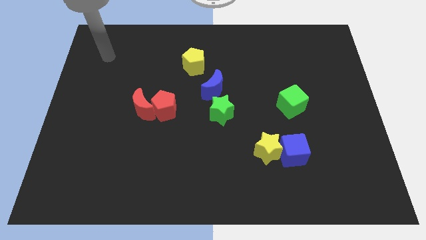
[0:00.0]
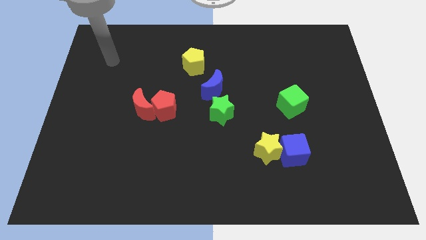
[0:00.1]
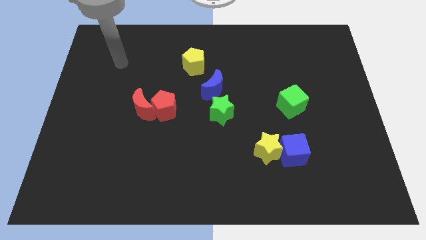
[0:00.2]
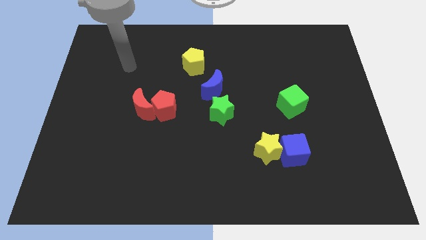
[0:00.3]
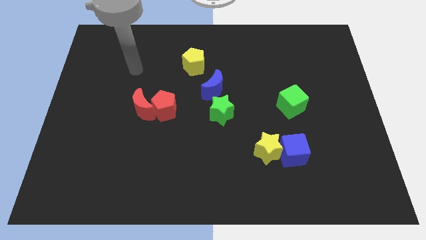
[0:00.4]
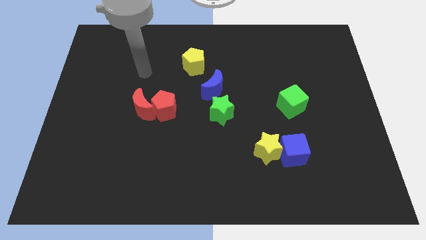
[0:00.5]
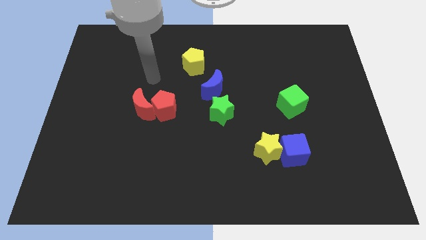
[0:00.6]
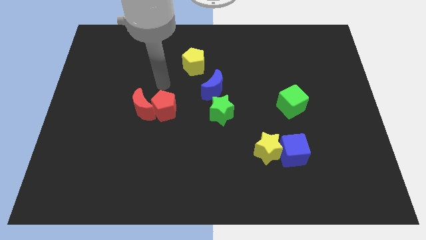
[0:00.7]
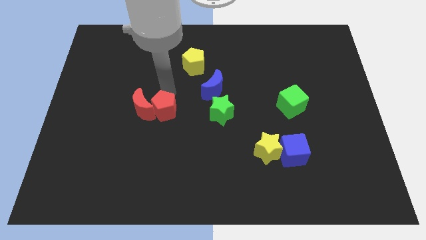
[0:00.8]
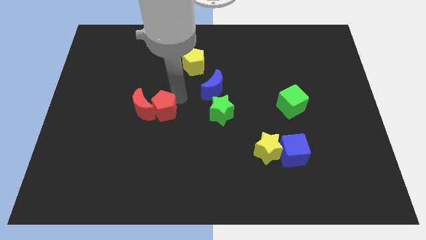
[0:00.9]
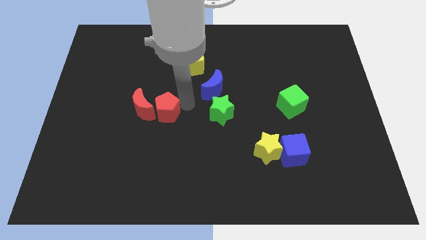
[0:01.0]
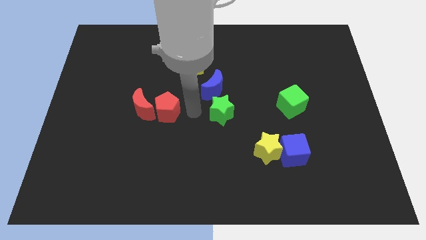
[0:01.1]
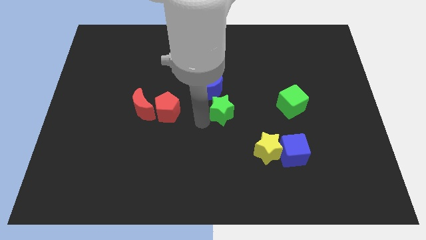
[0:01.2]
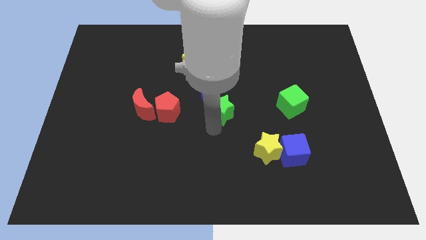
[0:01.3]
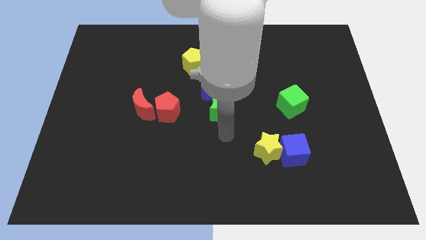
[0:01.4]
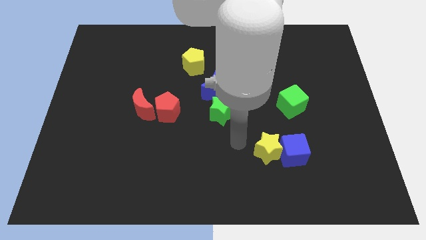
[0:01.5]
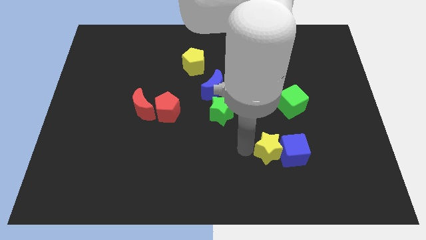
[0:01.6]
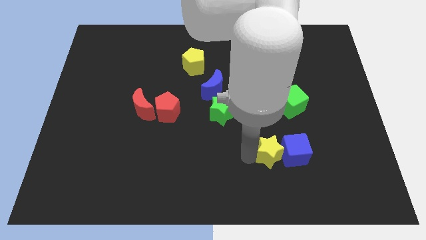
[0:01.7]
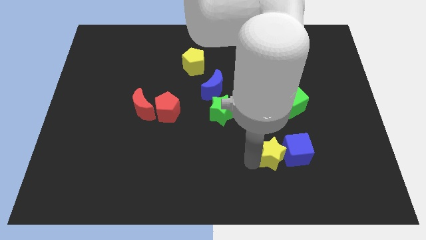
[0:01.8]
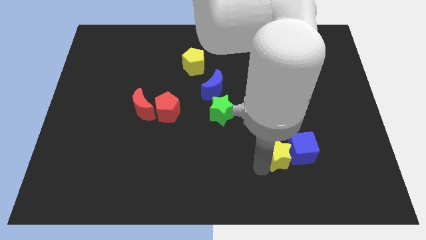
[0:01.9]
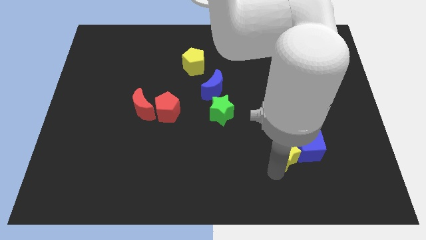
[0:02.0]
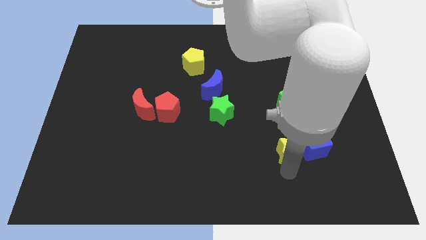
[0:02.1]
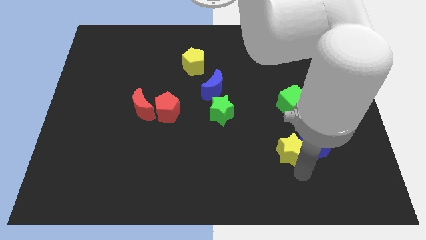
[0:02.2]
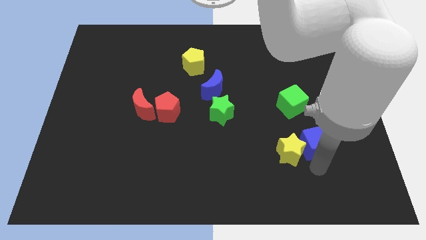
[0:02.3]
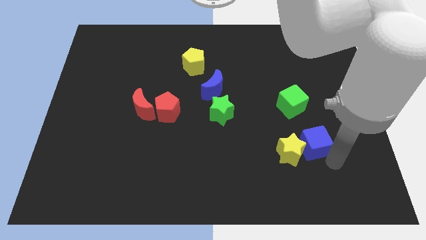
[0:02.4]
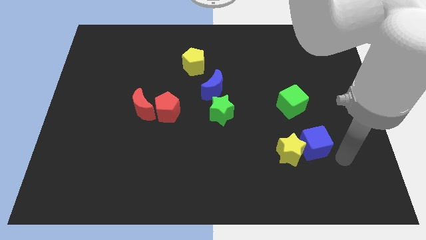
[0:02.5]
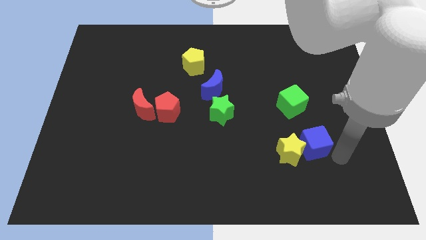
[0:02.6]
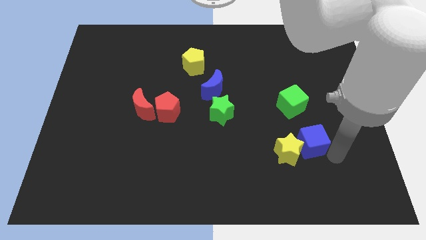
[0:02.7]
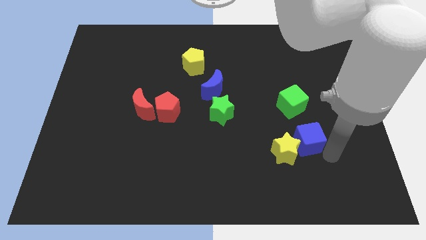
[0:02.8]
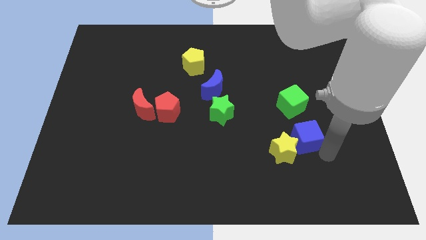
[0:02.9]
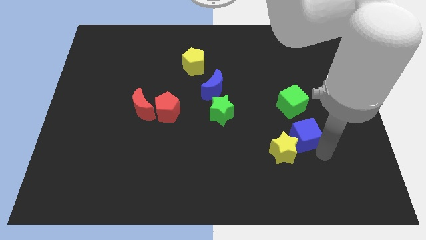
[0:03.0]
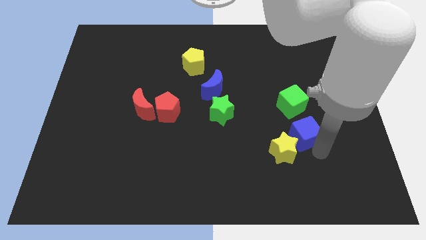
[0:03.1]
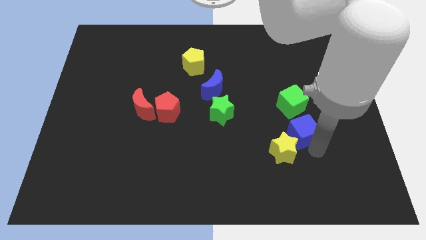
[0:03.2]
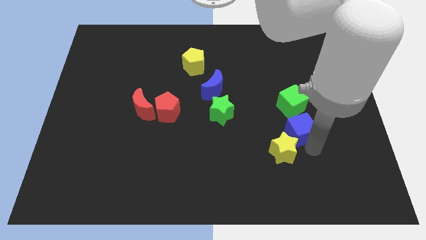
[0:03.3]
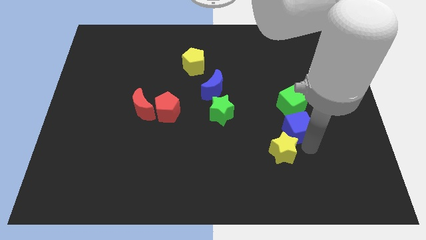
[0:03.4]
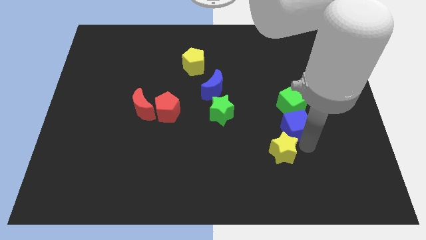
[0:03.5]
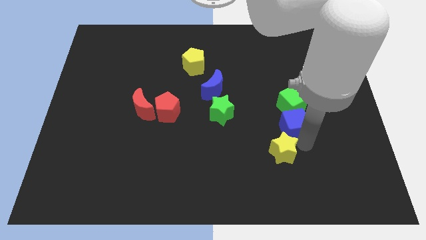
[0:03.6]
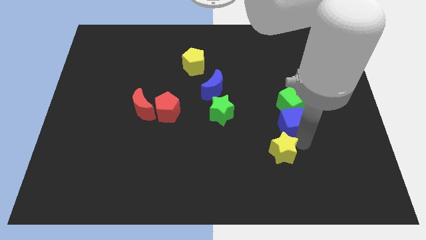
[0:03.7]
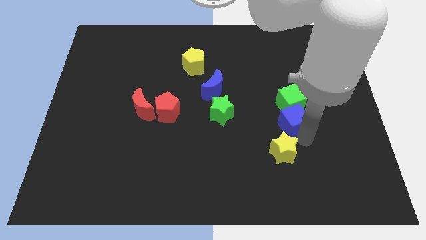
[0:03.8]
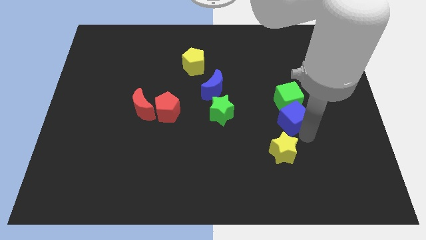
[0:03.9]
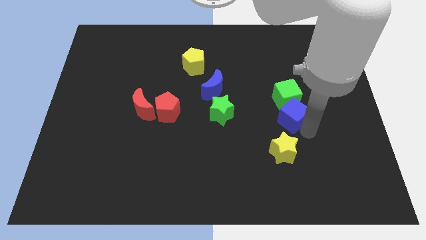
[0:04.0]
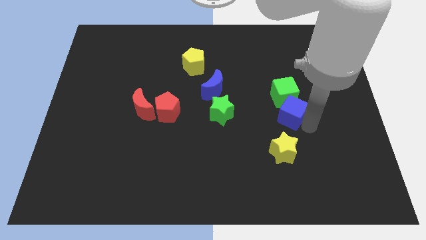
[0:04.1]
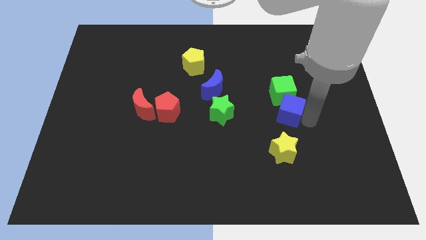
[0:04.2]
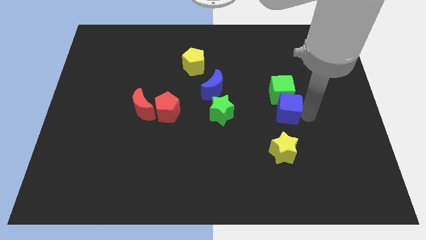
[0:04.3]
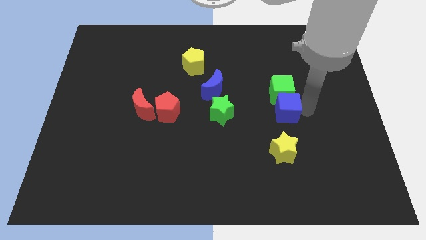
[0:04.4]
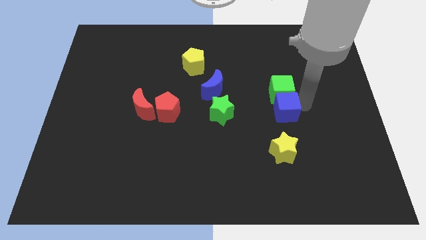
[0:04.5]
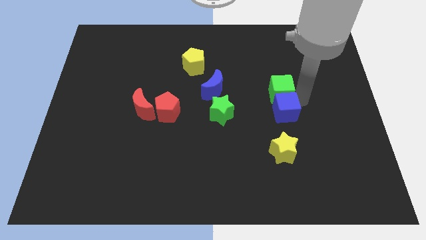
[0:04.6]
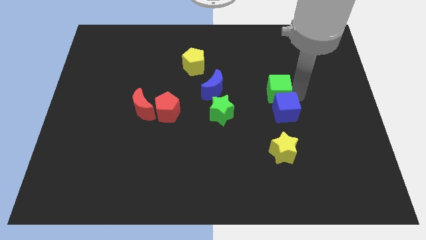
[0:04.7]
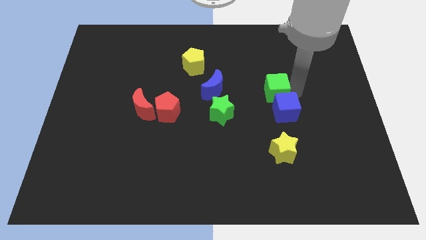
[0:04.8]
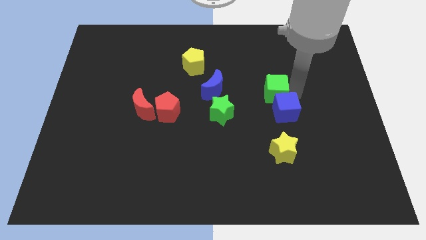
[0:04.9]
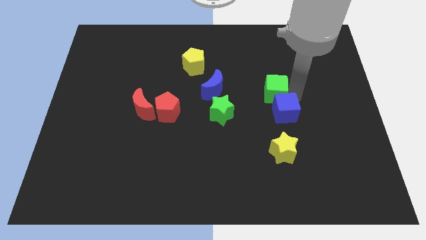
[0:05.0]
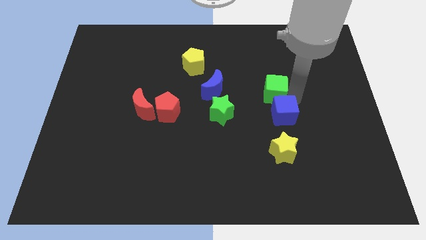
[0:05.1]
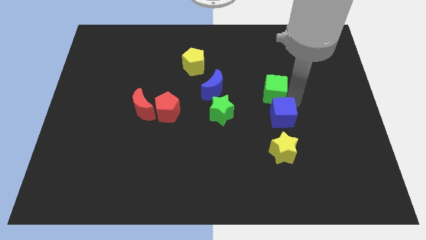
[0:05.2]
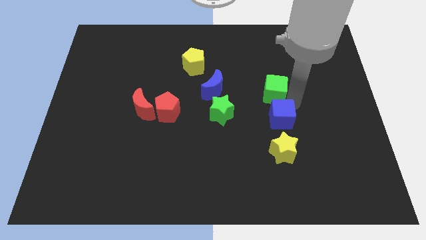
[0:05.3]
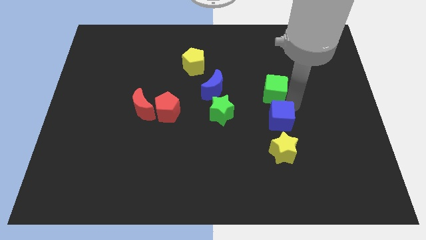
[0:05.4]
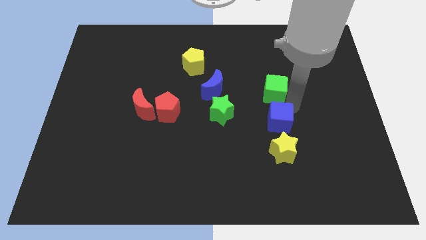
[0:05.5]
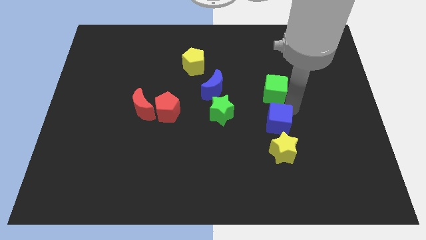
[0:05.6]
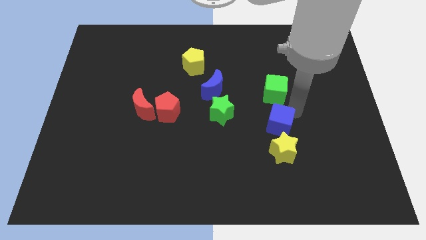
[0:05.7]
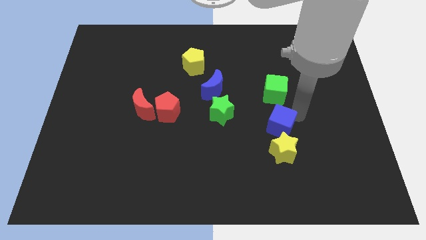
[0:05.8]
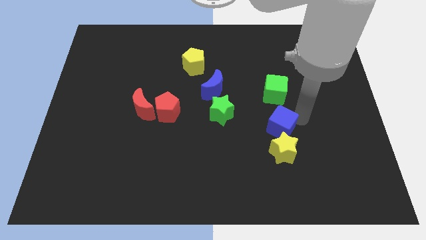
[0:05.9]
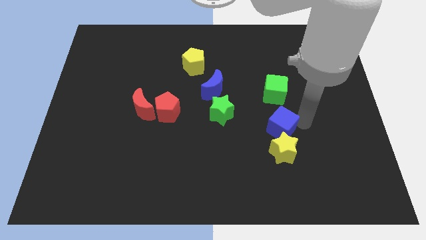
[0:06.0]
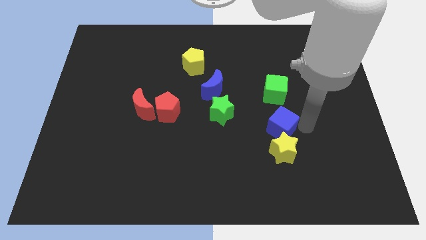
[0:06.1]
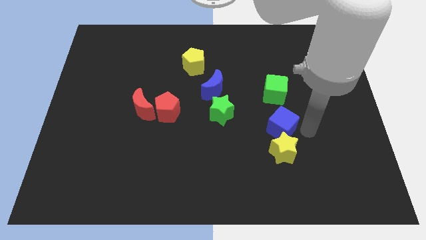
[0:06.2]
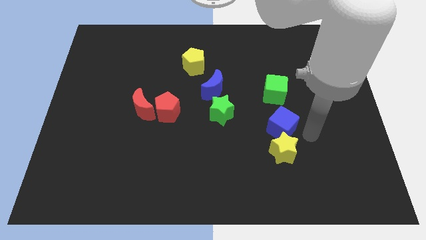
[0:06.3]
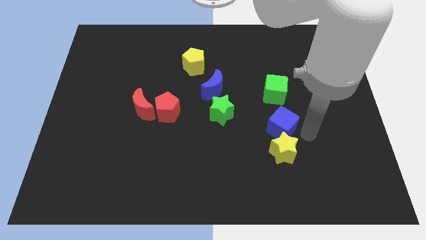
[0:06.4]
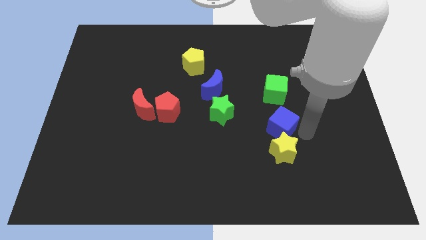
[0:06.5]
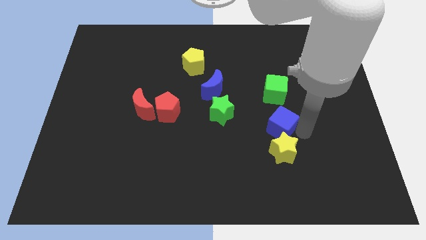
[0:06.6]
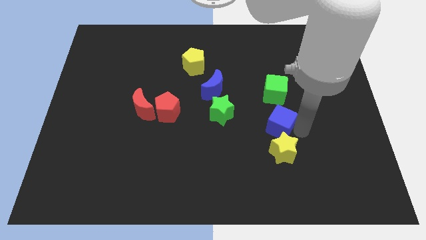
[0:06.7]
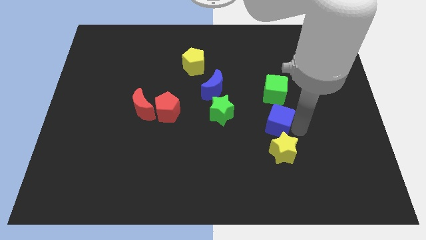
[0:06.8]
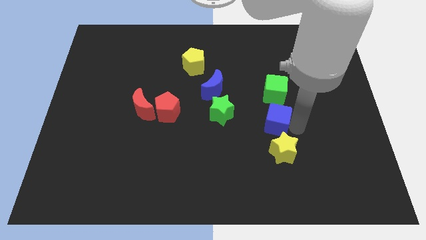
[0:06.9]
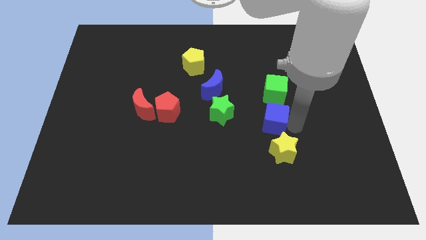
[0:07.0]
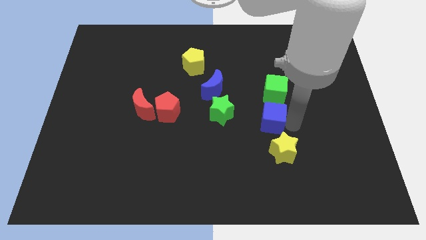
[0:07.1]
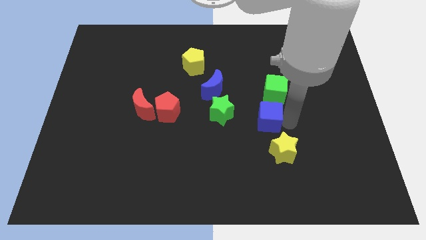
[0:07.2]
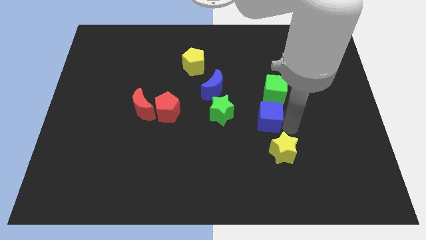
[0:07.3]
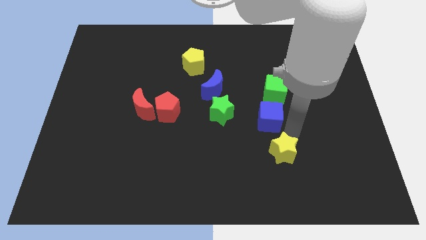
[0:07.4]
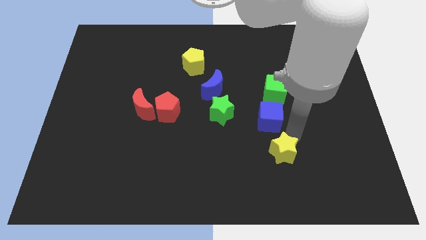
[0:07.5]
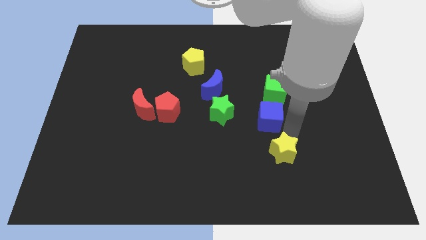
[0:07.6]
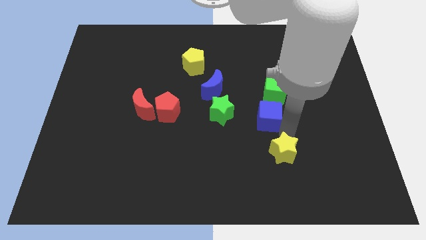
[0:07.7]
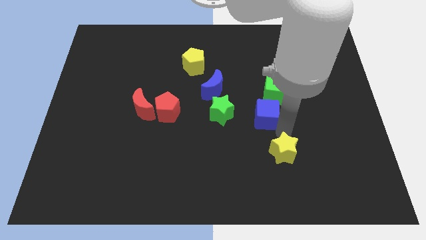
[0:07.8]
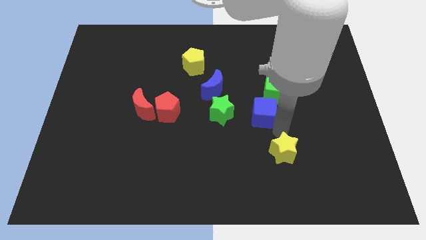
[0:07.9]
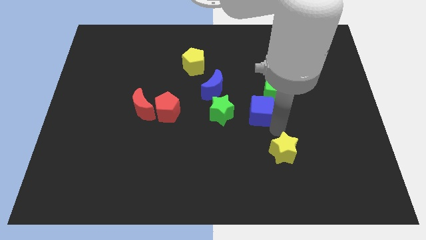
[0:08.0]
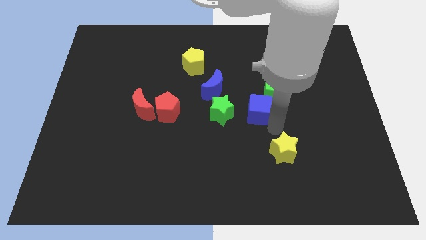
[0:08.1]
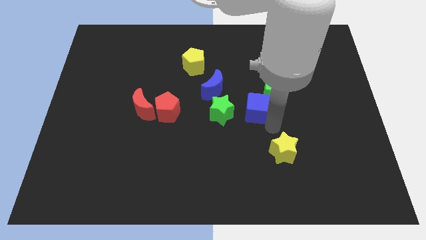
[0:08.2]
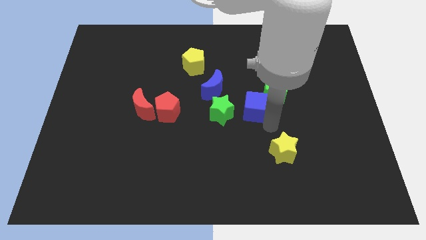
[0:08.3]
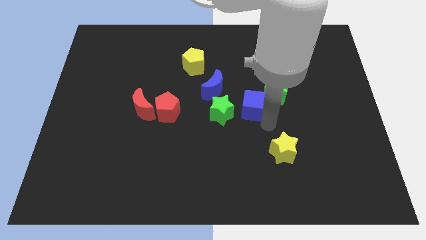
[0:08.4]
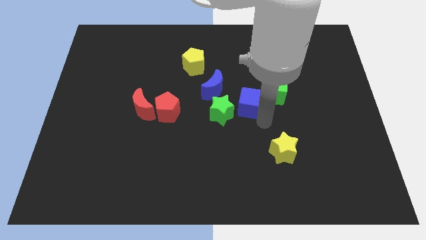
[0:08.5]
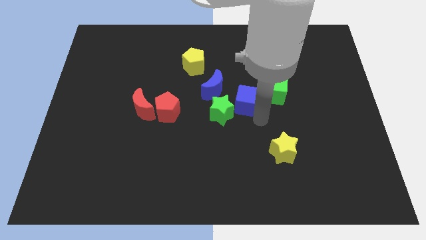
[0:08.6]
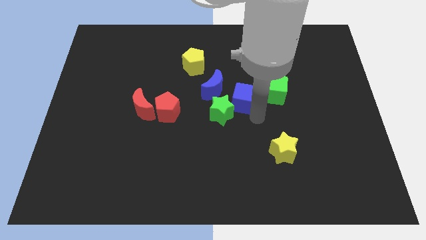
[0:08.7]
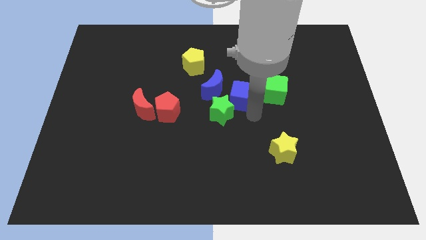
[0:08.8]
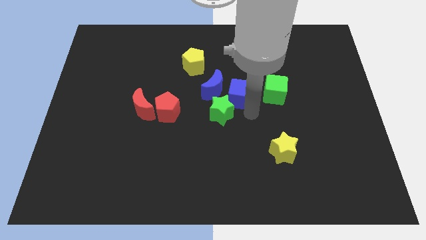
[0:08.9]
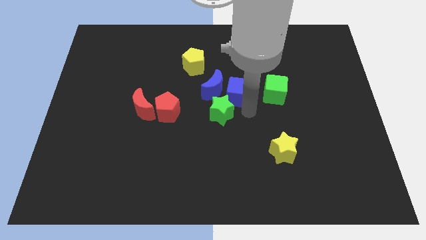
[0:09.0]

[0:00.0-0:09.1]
move the blue cube to the blue moon
